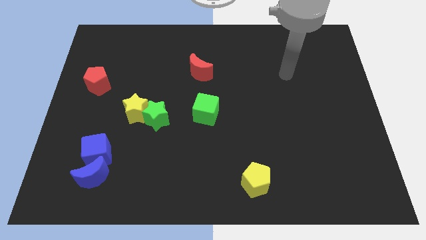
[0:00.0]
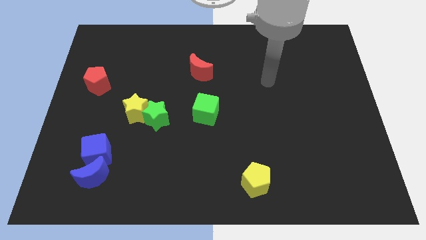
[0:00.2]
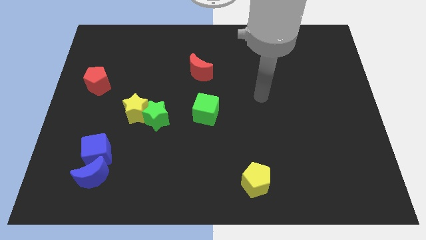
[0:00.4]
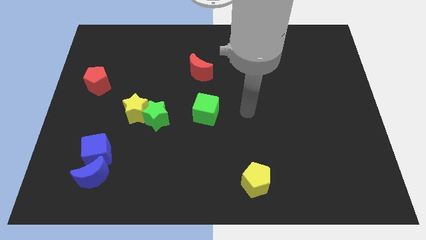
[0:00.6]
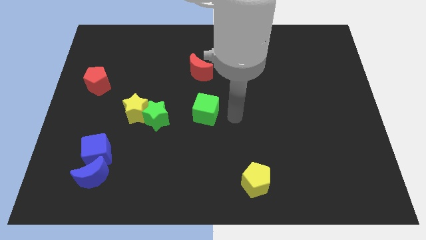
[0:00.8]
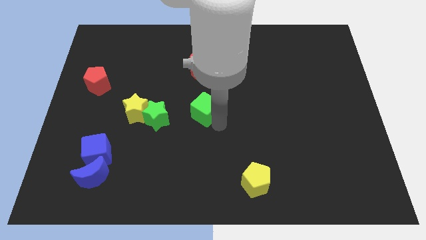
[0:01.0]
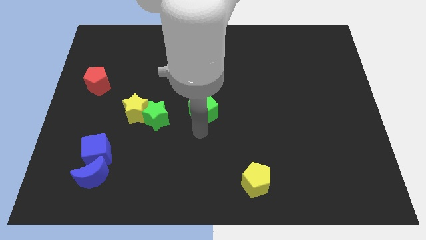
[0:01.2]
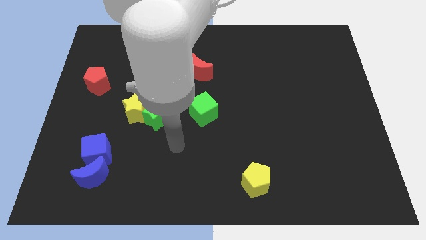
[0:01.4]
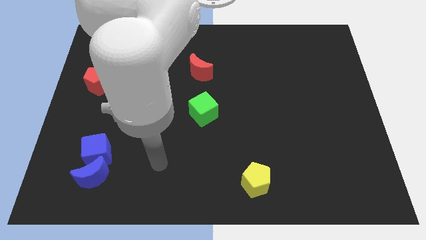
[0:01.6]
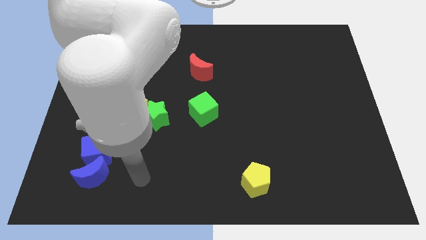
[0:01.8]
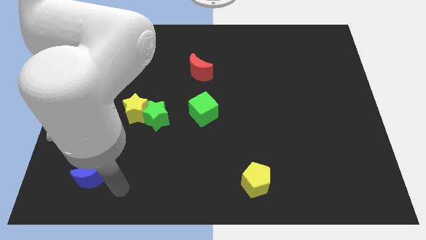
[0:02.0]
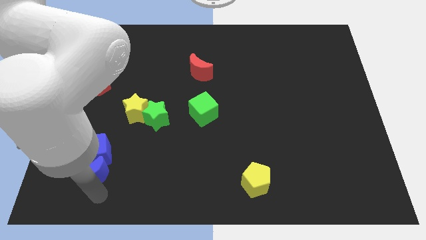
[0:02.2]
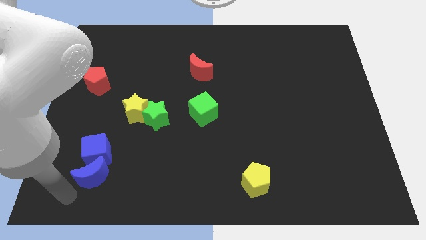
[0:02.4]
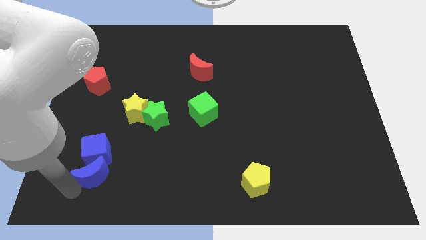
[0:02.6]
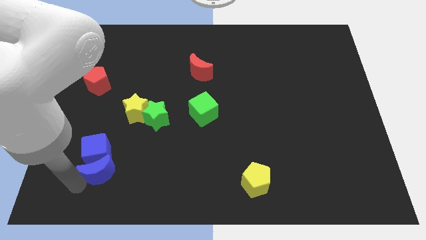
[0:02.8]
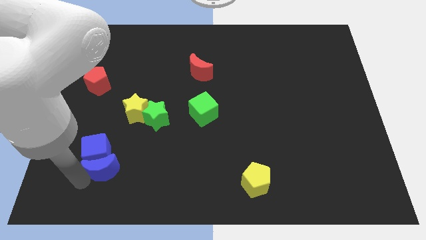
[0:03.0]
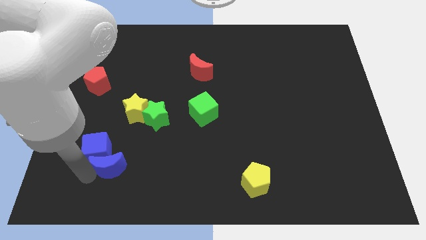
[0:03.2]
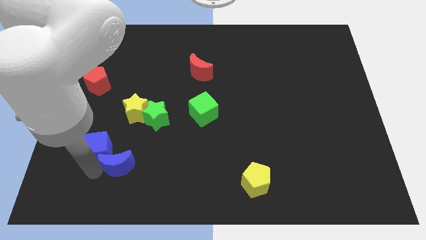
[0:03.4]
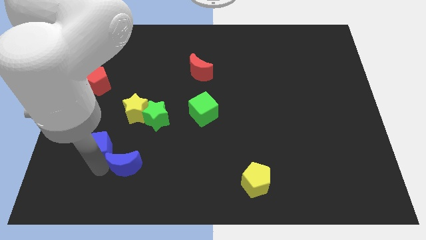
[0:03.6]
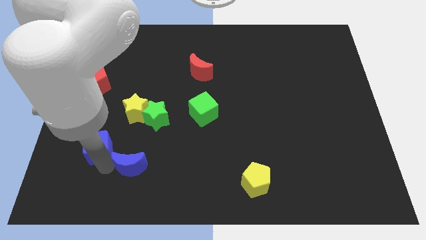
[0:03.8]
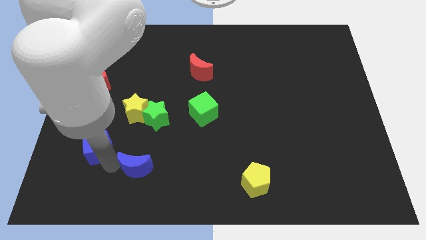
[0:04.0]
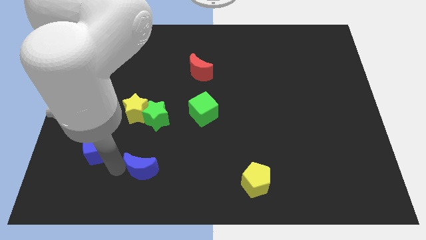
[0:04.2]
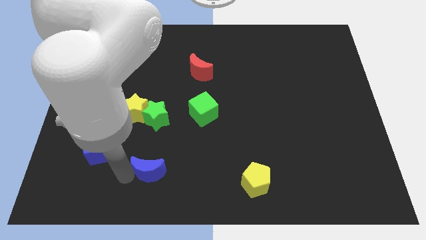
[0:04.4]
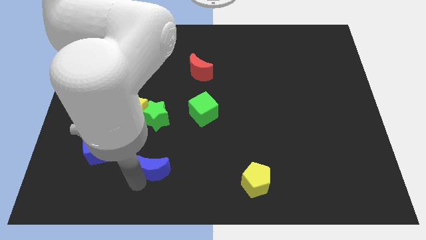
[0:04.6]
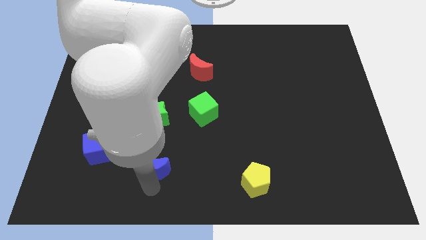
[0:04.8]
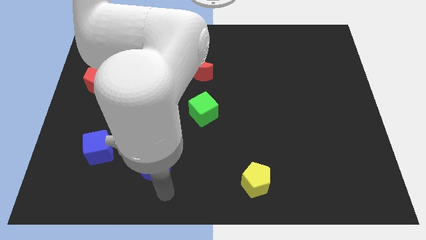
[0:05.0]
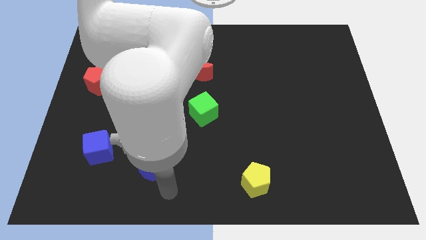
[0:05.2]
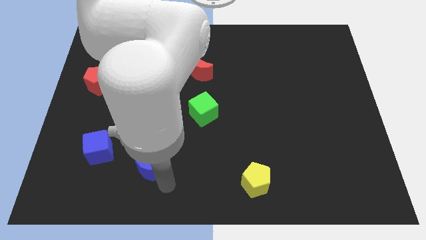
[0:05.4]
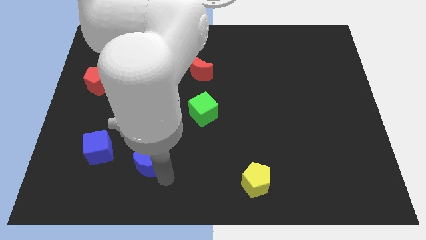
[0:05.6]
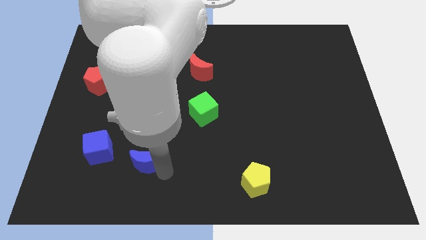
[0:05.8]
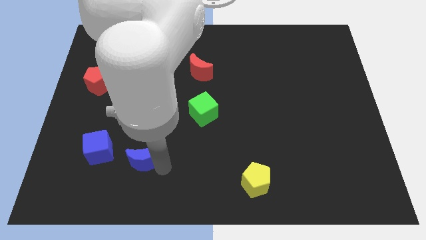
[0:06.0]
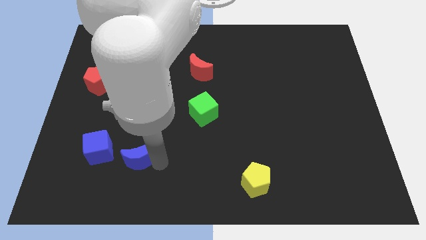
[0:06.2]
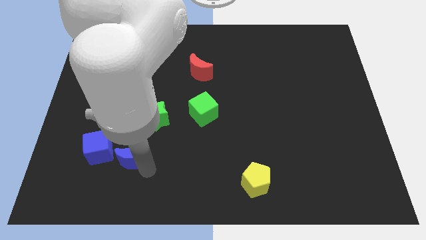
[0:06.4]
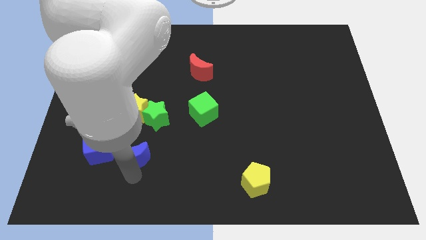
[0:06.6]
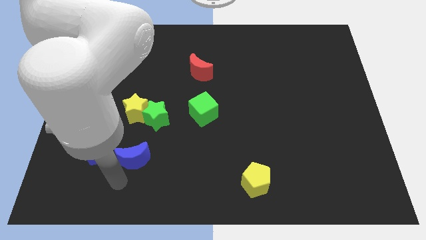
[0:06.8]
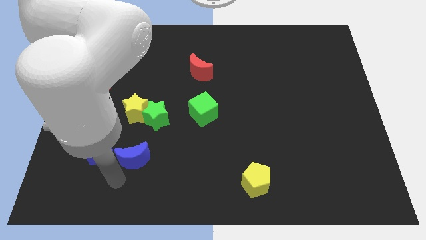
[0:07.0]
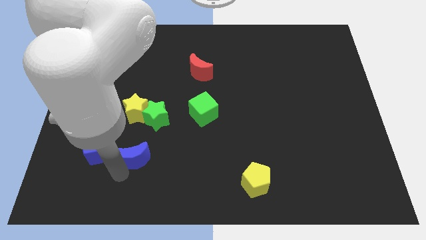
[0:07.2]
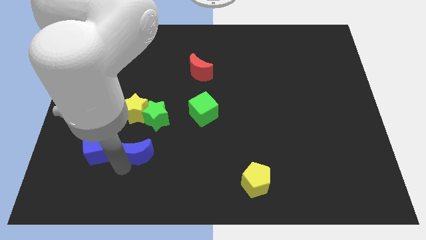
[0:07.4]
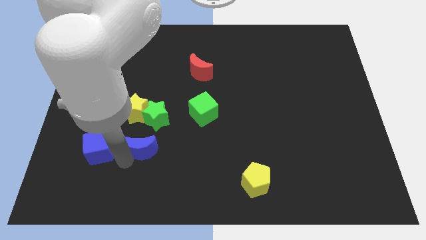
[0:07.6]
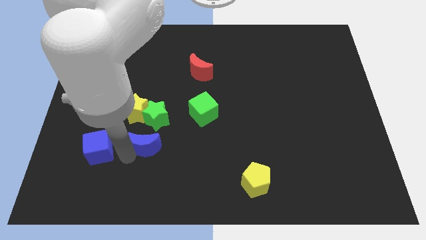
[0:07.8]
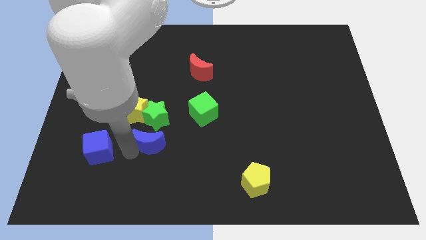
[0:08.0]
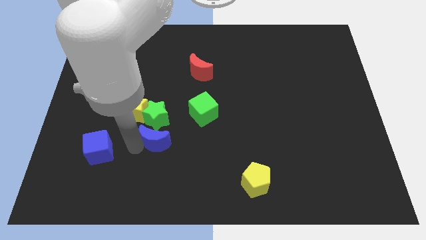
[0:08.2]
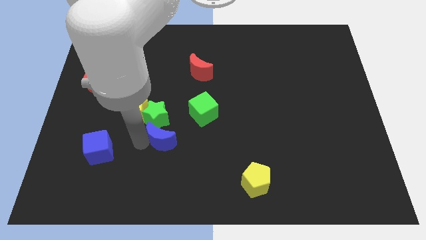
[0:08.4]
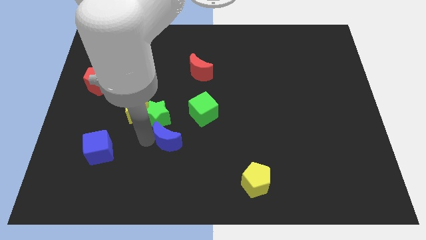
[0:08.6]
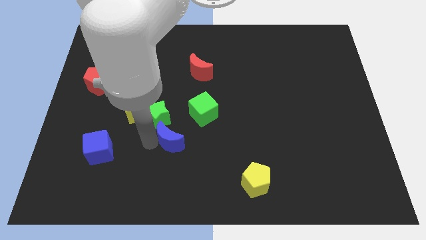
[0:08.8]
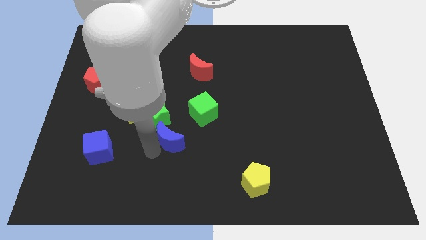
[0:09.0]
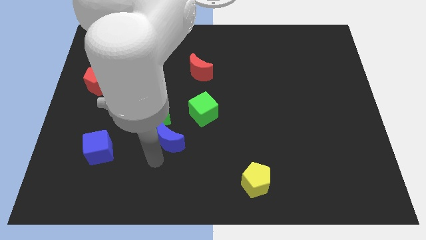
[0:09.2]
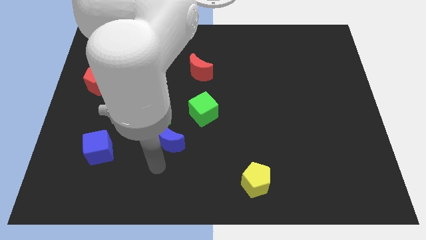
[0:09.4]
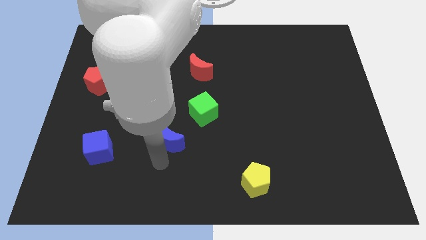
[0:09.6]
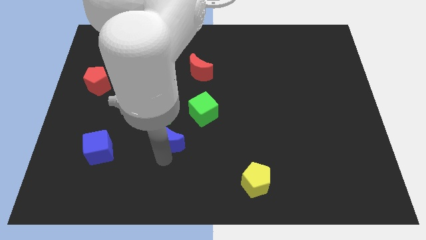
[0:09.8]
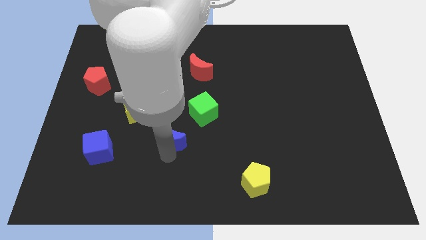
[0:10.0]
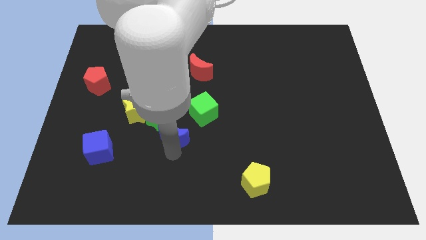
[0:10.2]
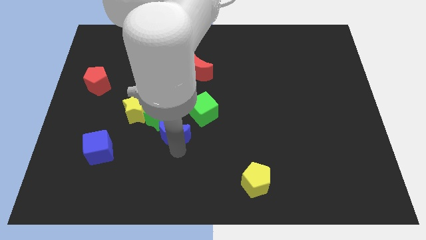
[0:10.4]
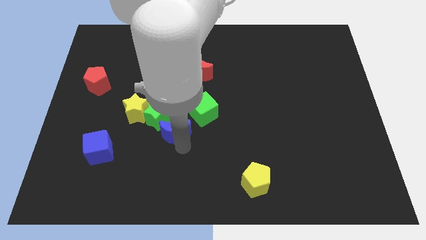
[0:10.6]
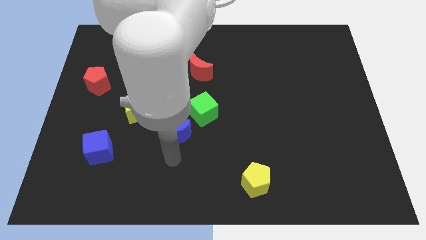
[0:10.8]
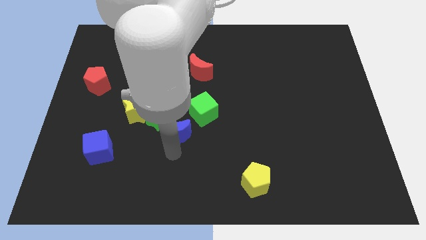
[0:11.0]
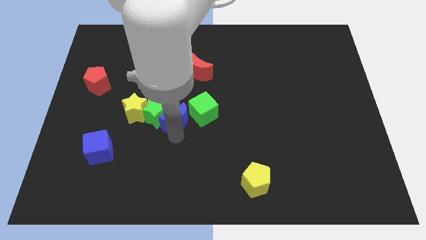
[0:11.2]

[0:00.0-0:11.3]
slide the blue moon to the top right of the green star

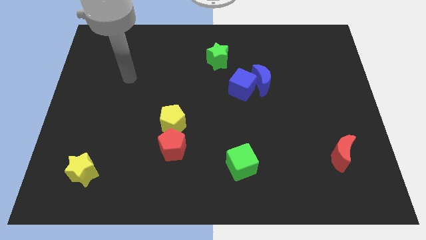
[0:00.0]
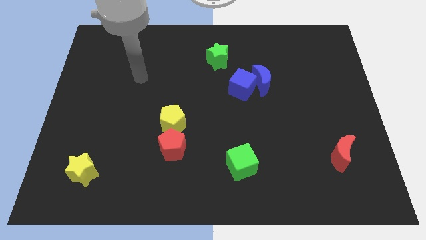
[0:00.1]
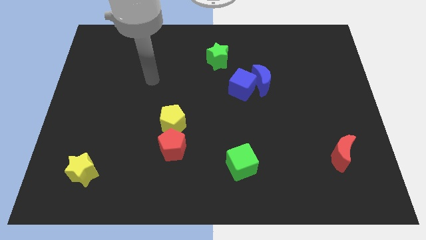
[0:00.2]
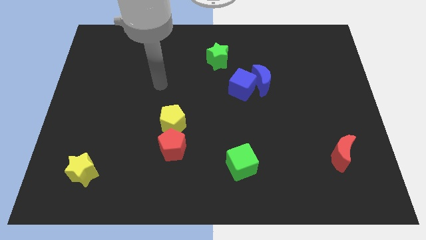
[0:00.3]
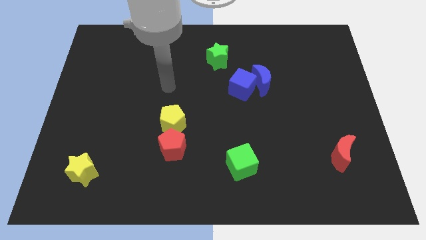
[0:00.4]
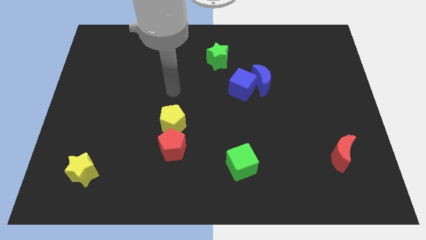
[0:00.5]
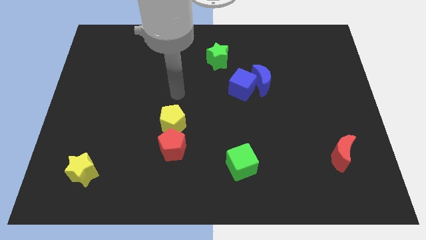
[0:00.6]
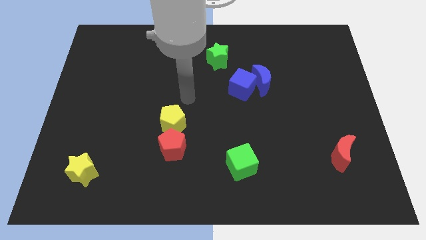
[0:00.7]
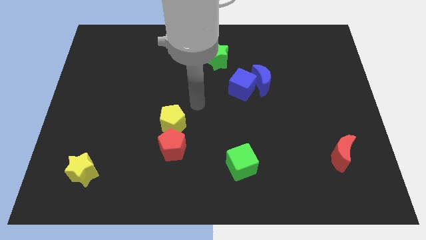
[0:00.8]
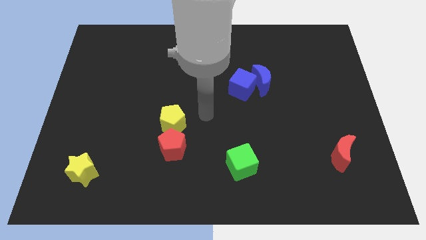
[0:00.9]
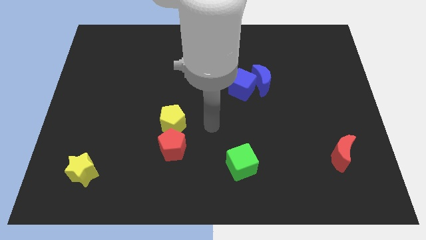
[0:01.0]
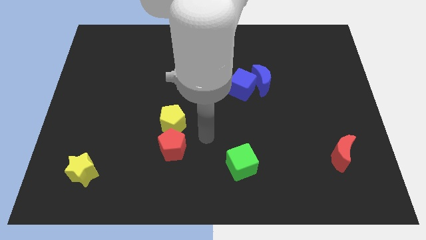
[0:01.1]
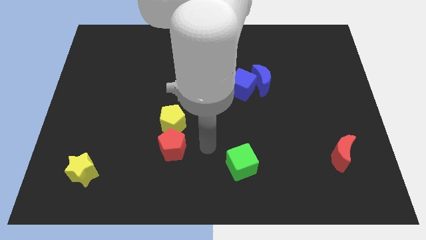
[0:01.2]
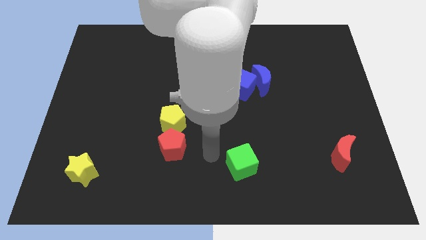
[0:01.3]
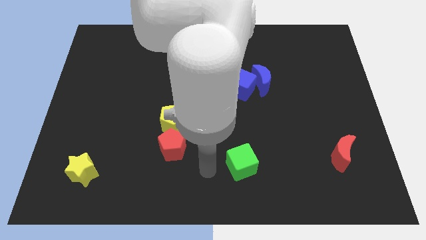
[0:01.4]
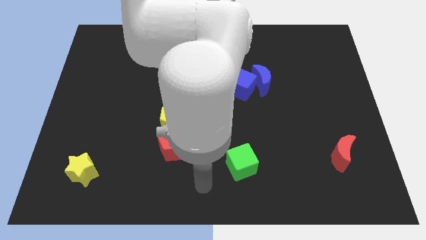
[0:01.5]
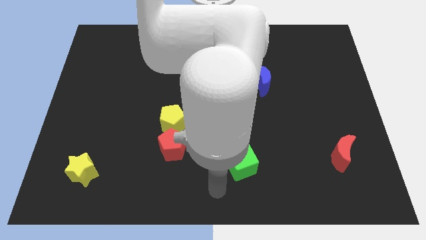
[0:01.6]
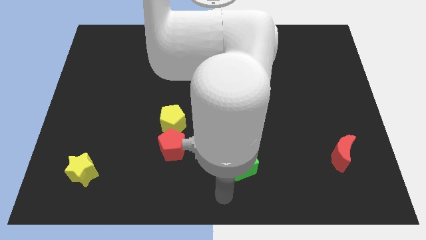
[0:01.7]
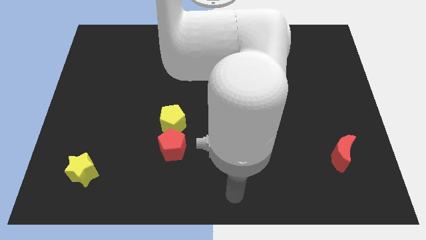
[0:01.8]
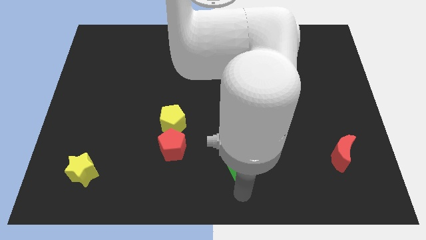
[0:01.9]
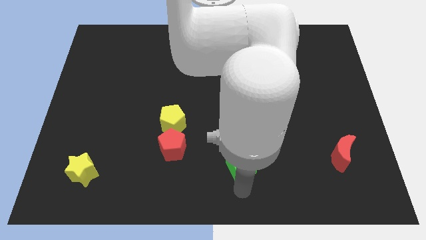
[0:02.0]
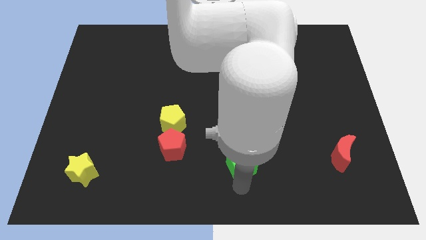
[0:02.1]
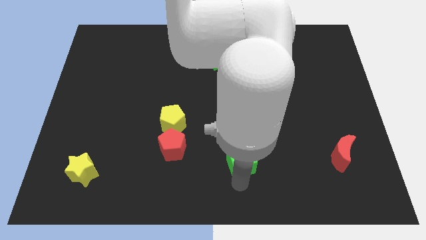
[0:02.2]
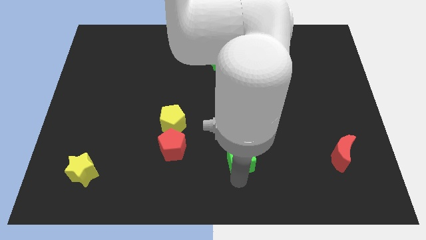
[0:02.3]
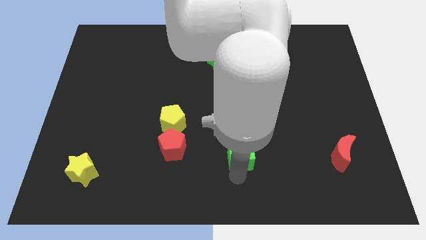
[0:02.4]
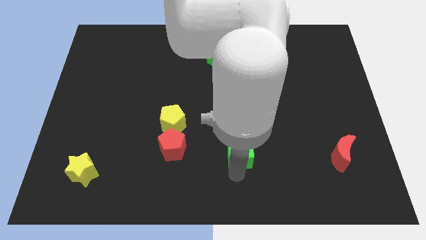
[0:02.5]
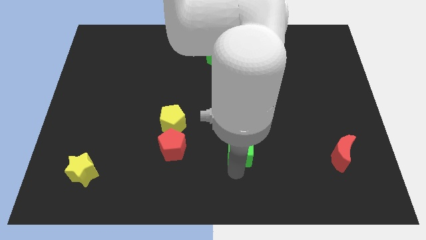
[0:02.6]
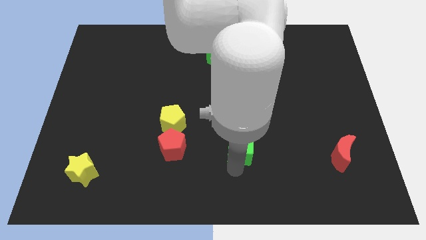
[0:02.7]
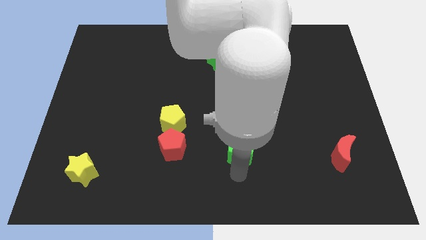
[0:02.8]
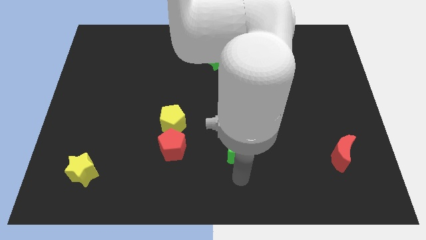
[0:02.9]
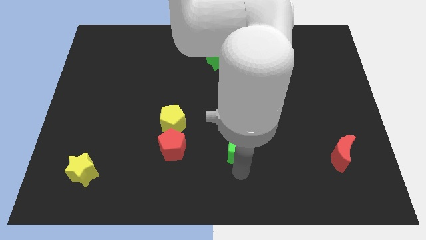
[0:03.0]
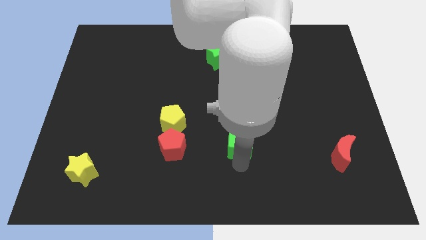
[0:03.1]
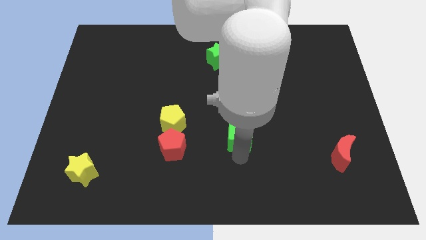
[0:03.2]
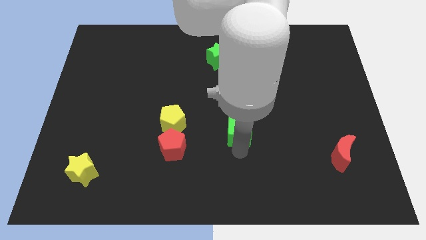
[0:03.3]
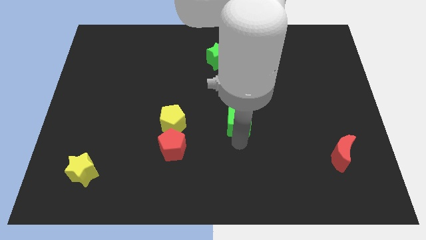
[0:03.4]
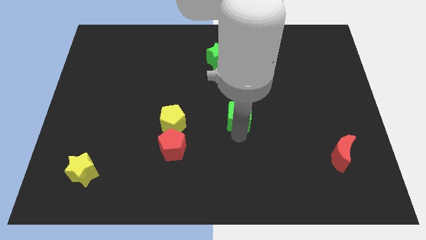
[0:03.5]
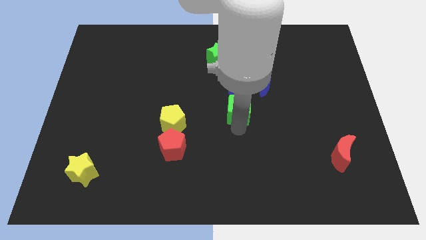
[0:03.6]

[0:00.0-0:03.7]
slide the green cube diagonally down and to the left of the blue moon
